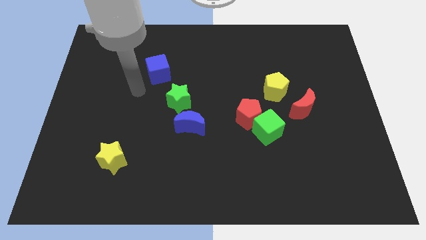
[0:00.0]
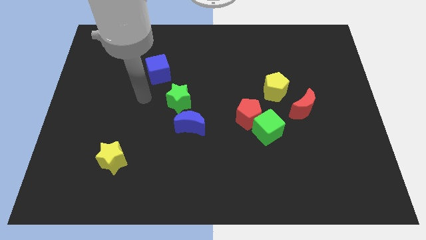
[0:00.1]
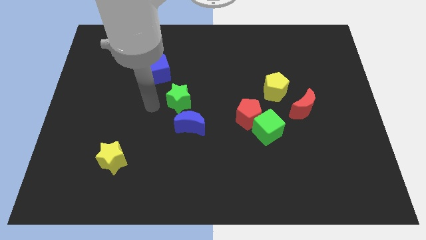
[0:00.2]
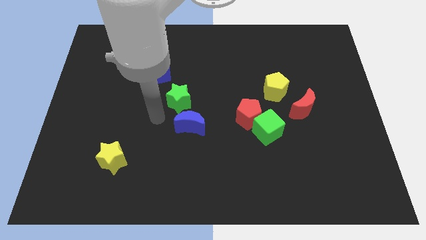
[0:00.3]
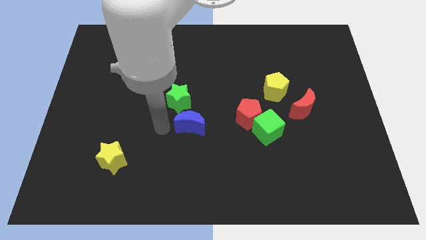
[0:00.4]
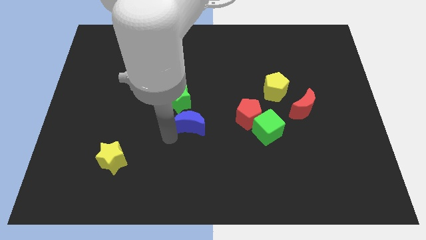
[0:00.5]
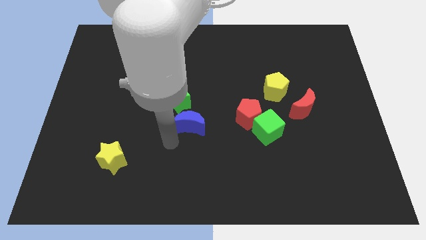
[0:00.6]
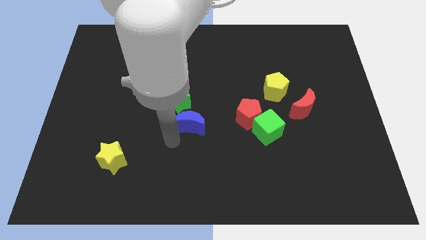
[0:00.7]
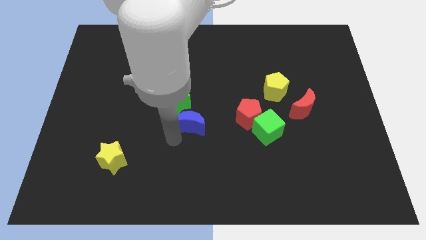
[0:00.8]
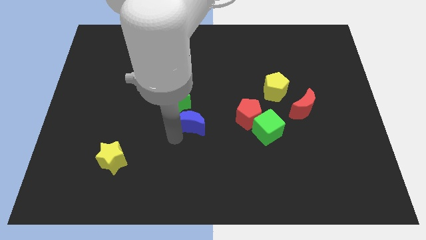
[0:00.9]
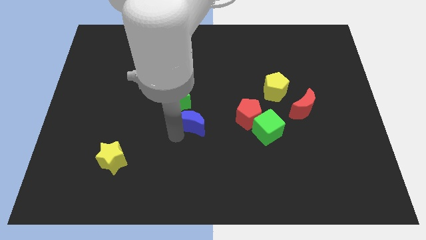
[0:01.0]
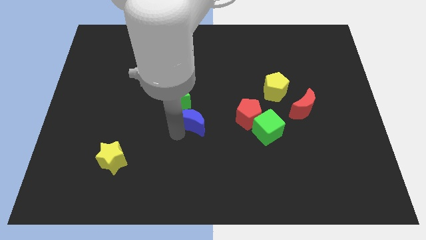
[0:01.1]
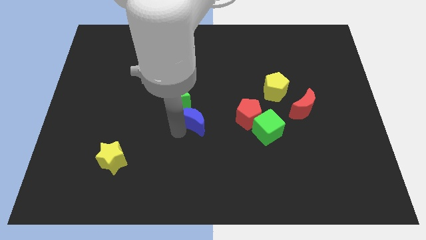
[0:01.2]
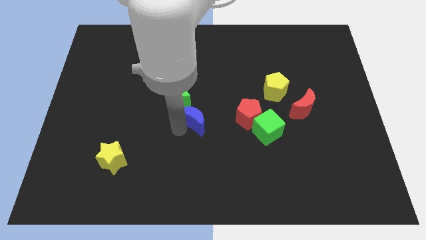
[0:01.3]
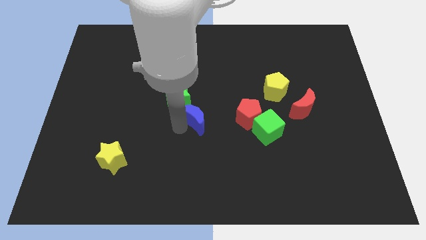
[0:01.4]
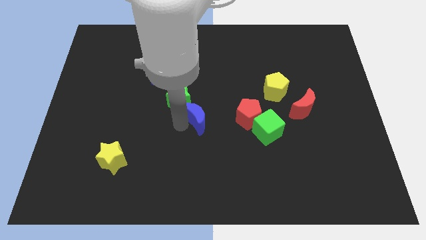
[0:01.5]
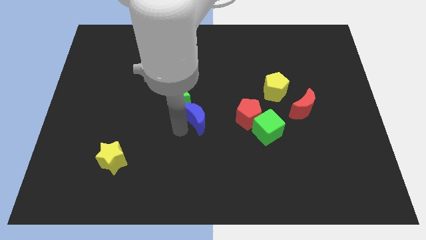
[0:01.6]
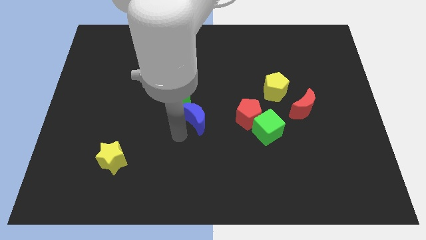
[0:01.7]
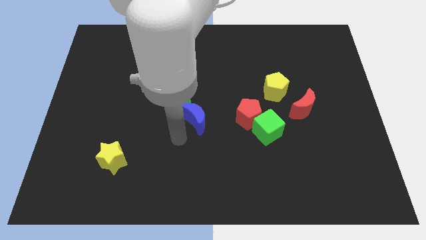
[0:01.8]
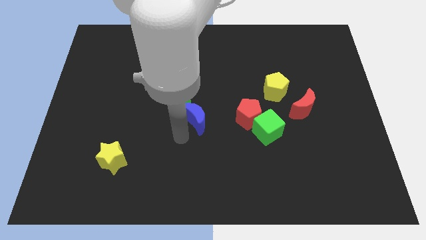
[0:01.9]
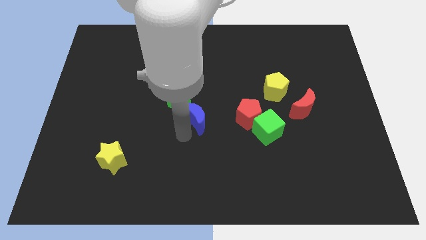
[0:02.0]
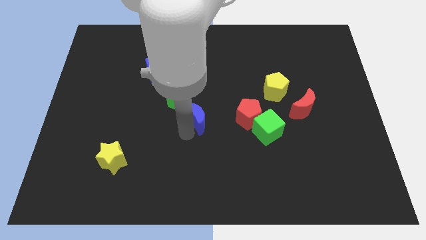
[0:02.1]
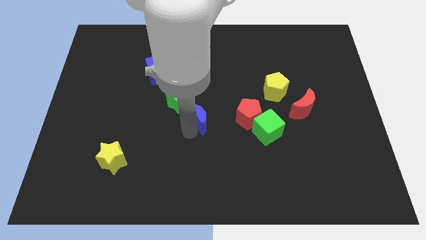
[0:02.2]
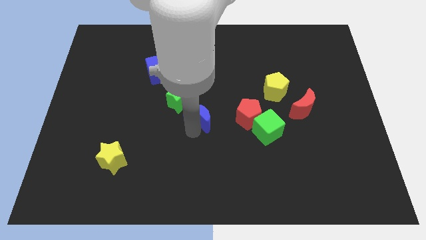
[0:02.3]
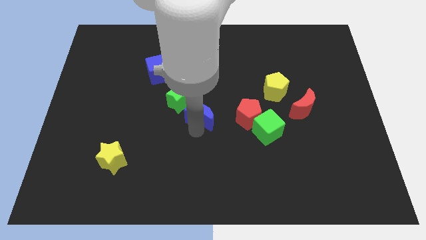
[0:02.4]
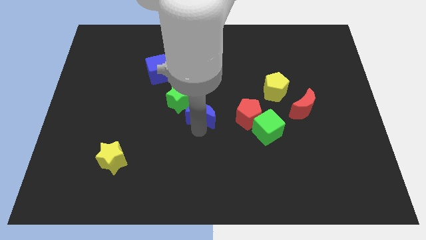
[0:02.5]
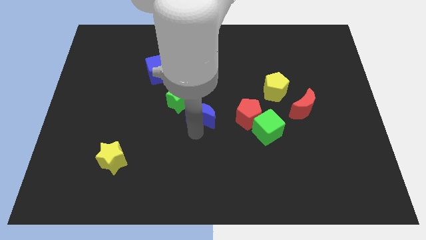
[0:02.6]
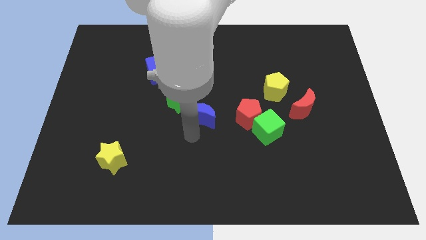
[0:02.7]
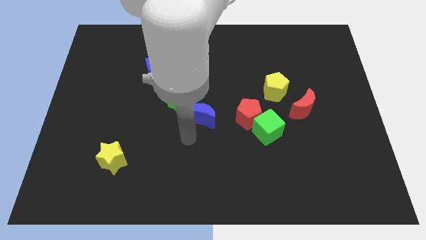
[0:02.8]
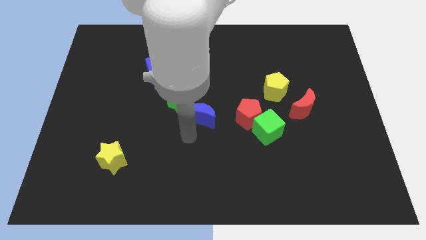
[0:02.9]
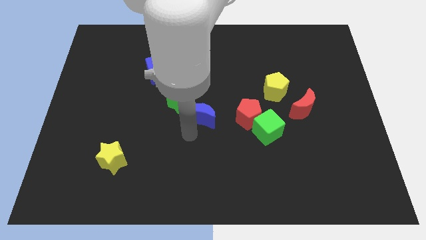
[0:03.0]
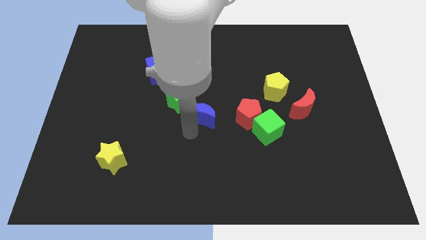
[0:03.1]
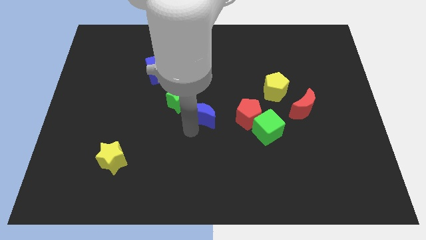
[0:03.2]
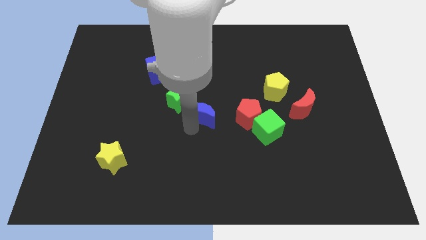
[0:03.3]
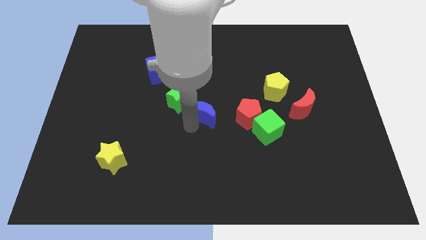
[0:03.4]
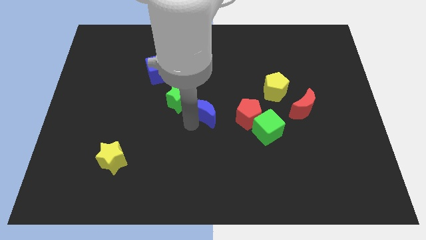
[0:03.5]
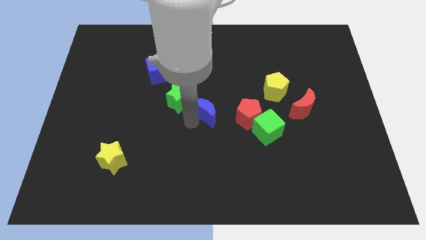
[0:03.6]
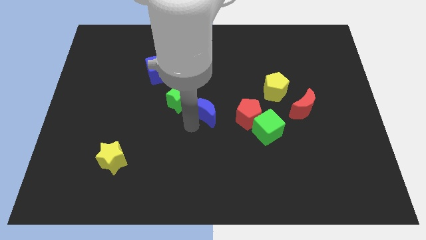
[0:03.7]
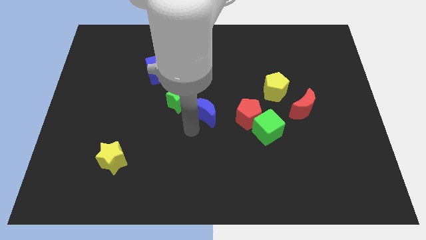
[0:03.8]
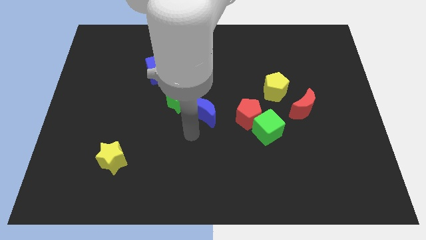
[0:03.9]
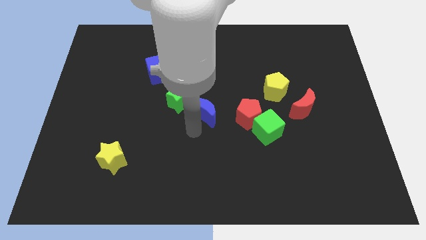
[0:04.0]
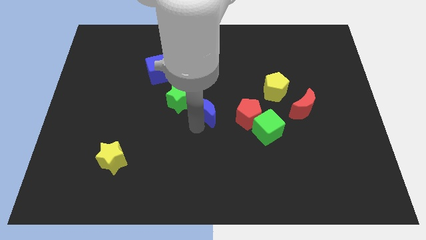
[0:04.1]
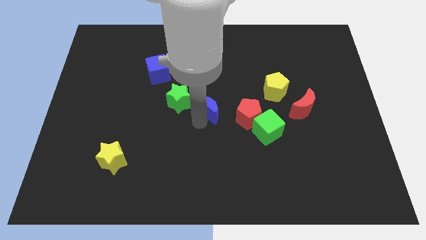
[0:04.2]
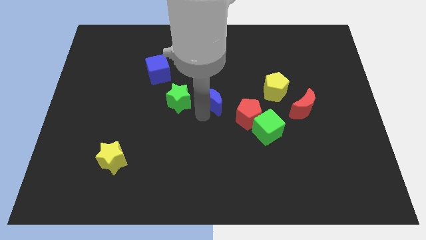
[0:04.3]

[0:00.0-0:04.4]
slightly move the blue moon up and right diagonally

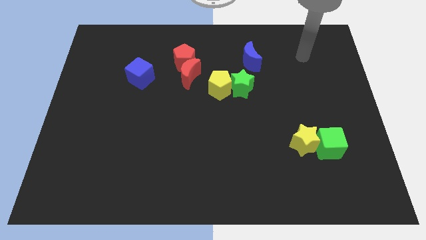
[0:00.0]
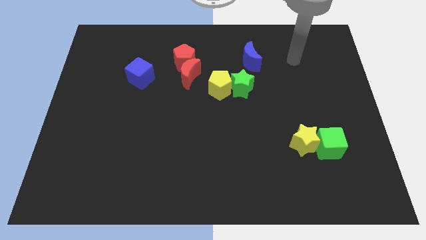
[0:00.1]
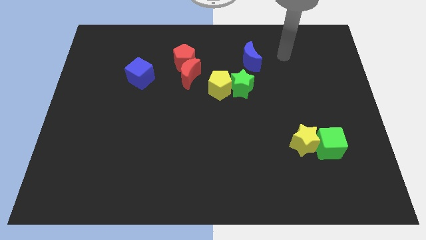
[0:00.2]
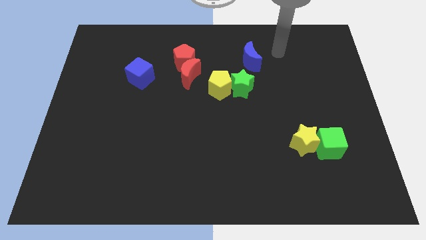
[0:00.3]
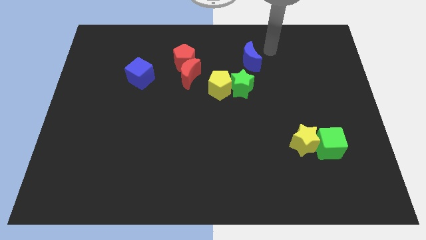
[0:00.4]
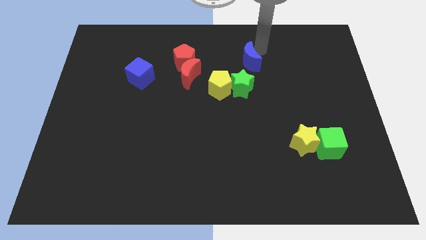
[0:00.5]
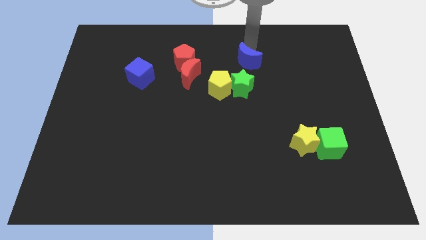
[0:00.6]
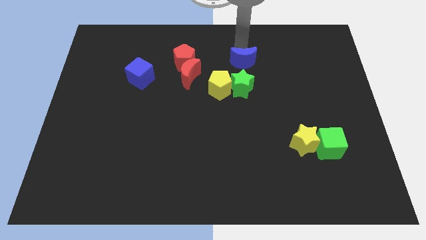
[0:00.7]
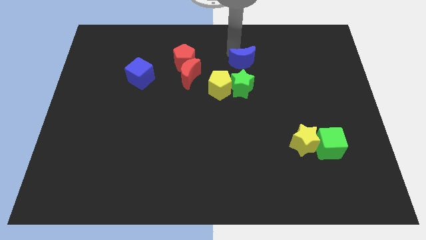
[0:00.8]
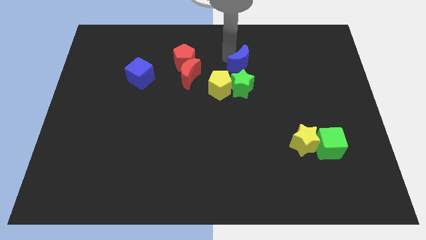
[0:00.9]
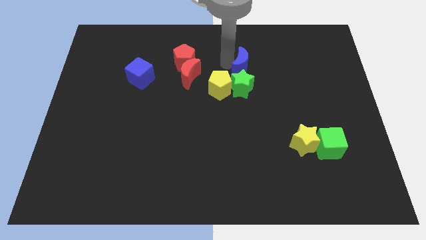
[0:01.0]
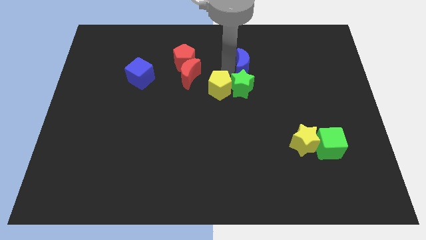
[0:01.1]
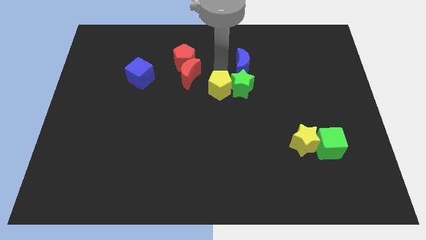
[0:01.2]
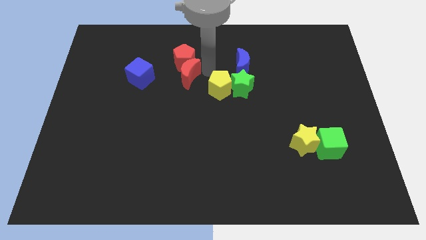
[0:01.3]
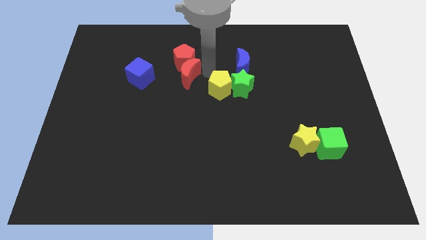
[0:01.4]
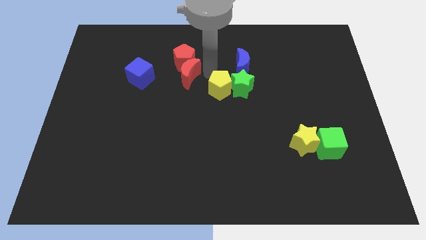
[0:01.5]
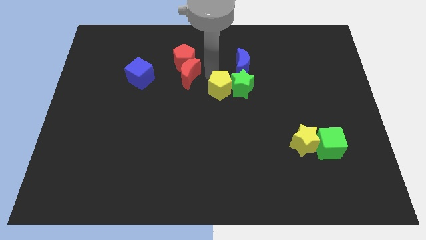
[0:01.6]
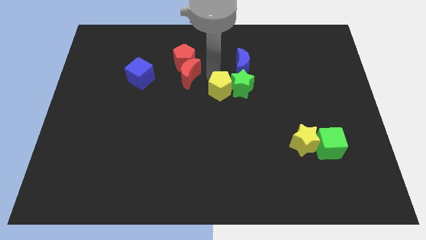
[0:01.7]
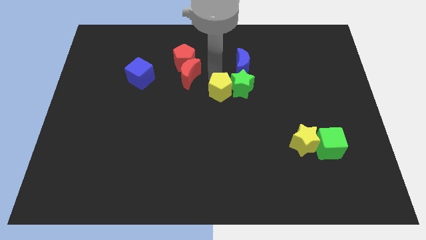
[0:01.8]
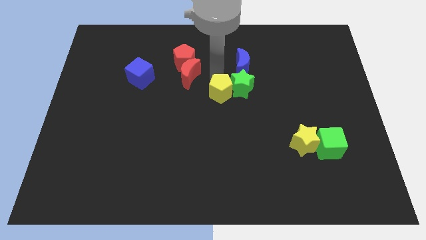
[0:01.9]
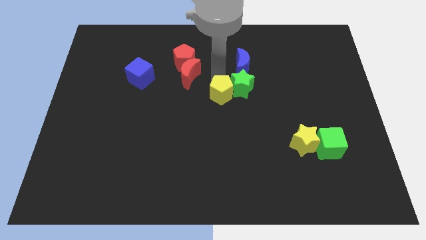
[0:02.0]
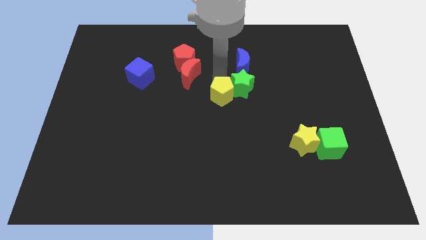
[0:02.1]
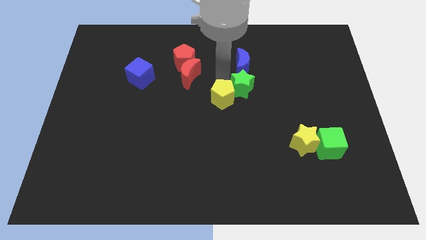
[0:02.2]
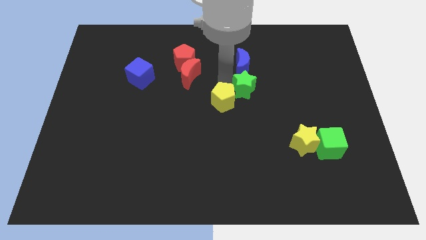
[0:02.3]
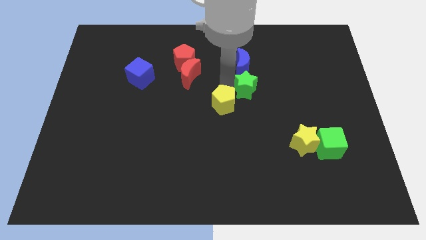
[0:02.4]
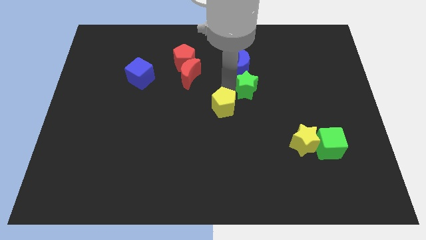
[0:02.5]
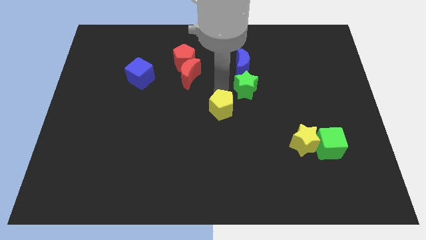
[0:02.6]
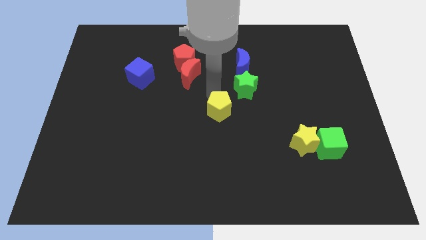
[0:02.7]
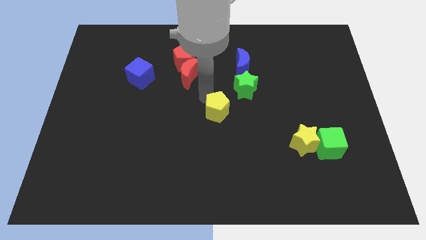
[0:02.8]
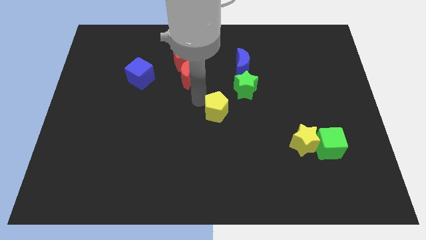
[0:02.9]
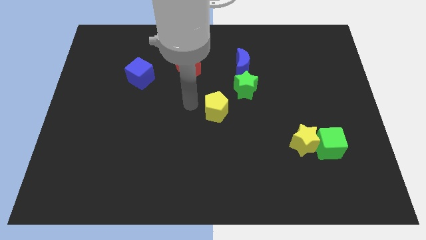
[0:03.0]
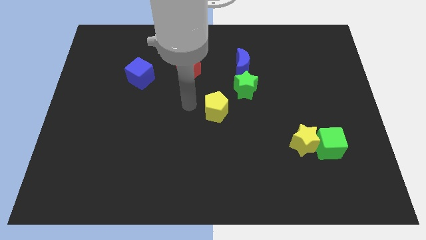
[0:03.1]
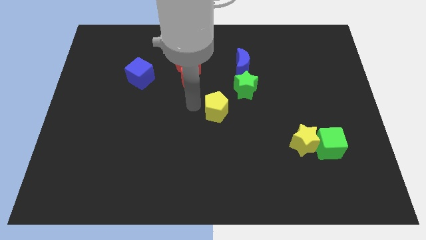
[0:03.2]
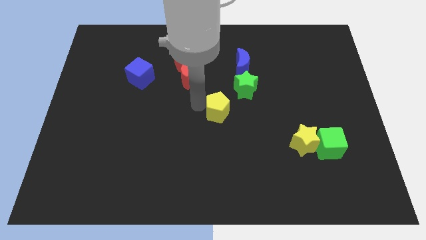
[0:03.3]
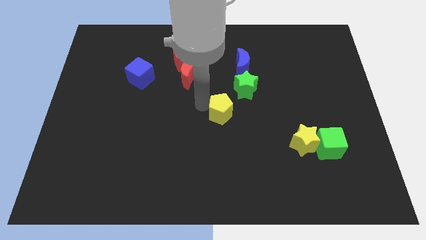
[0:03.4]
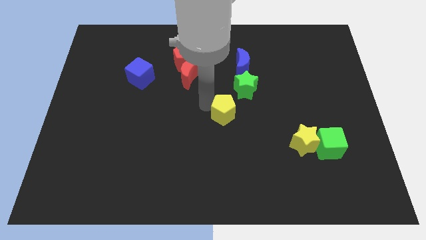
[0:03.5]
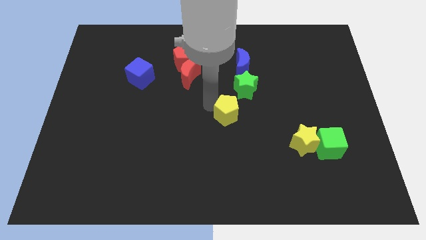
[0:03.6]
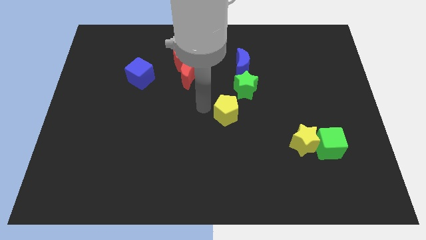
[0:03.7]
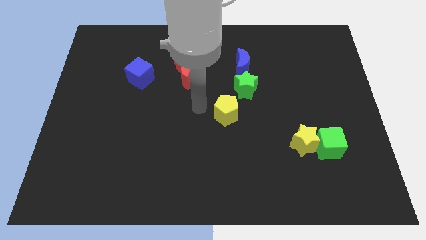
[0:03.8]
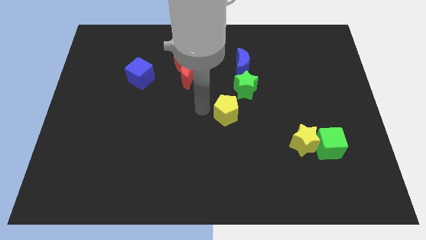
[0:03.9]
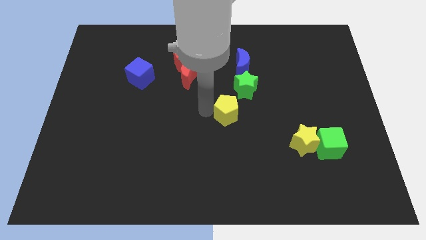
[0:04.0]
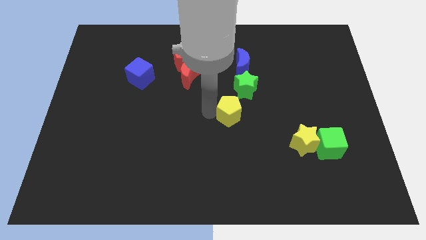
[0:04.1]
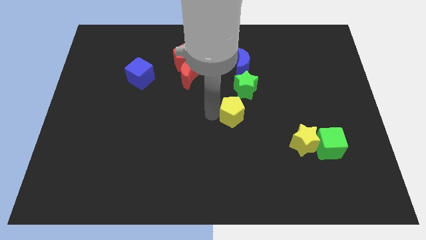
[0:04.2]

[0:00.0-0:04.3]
slightly push the yellow pentagon down and then to the right
